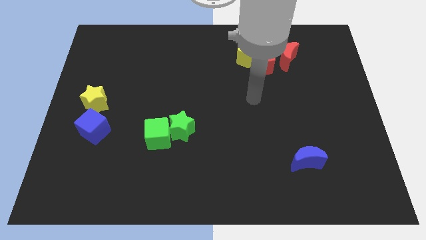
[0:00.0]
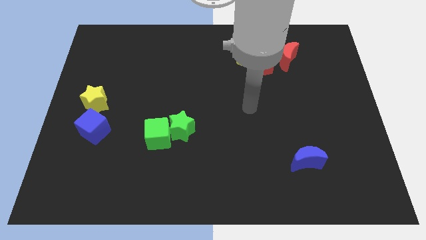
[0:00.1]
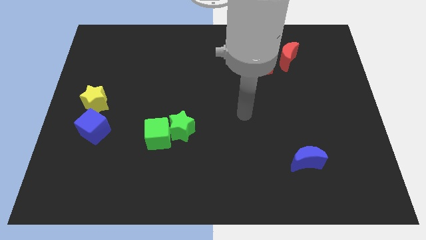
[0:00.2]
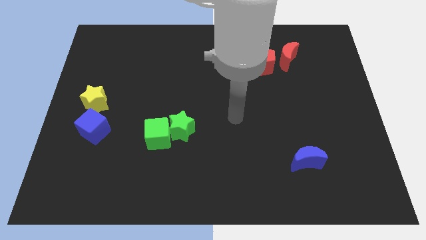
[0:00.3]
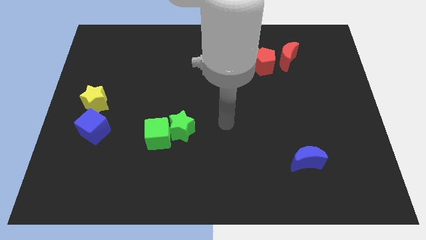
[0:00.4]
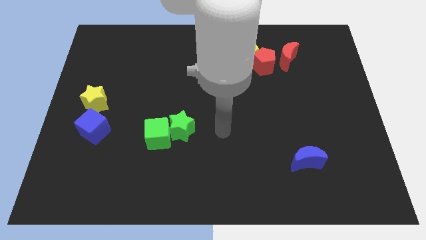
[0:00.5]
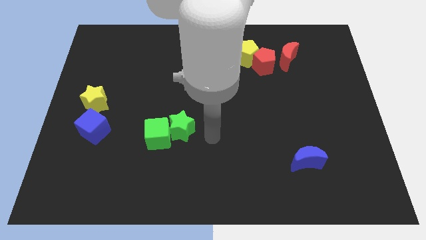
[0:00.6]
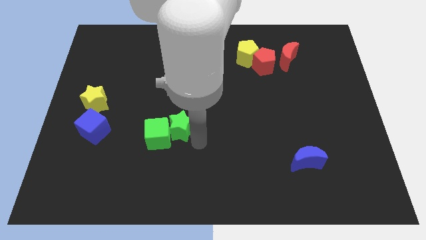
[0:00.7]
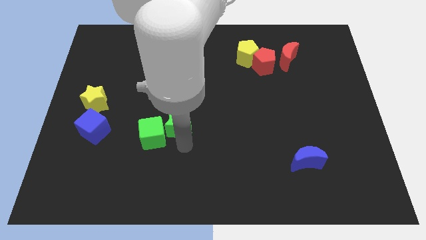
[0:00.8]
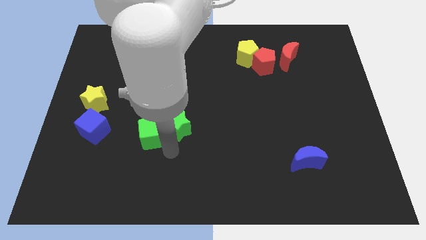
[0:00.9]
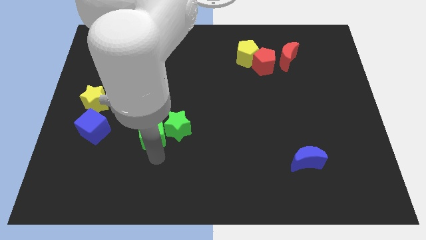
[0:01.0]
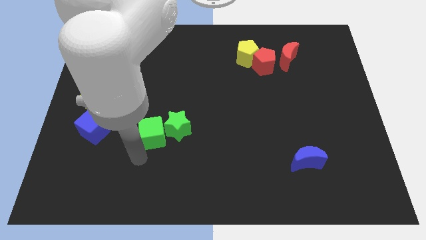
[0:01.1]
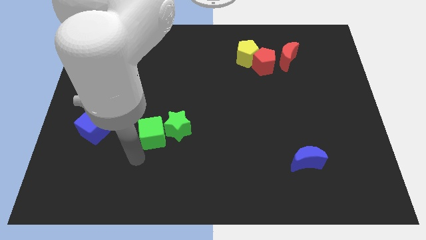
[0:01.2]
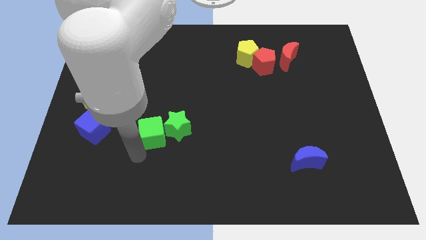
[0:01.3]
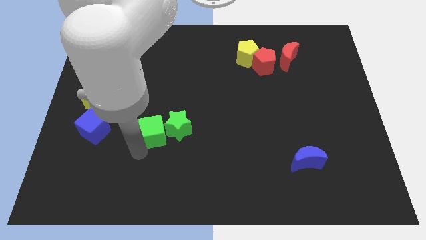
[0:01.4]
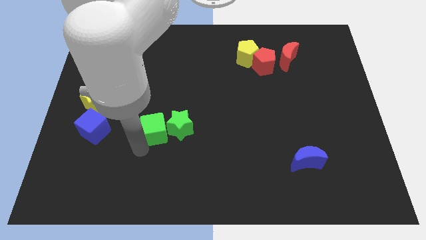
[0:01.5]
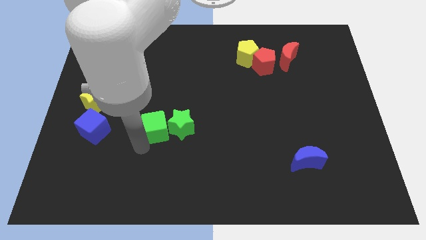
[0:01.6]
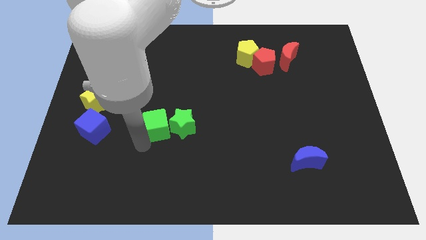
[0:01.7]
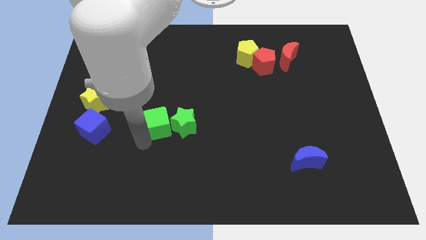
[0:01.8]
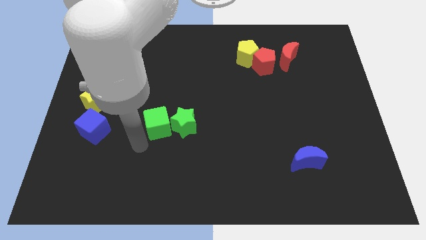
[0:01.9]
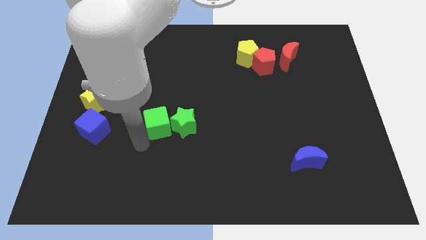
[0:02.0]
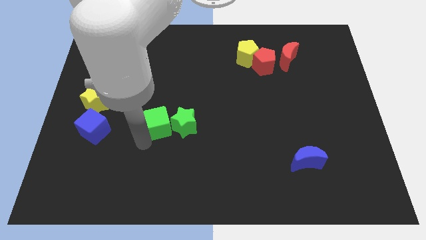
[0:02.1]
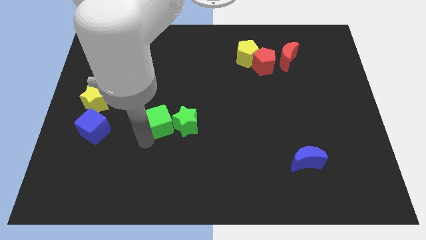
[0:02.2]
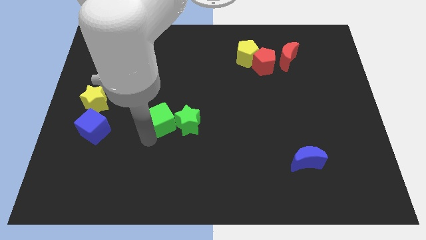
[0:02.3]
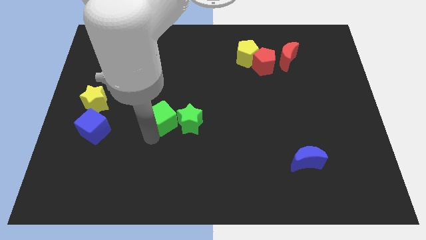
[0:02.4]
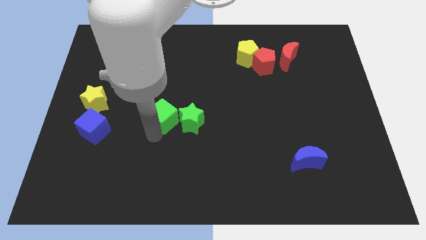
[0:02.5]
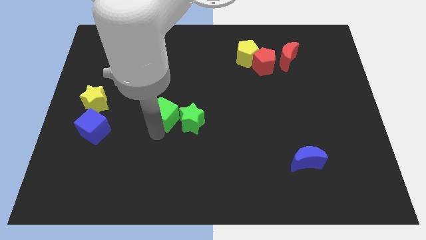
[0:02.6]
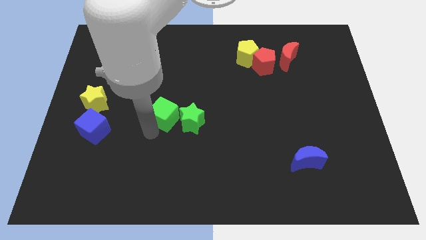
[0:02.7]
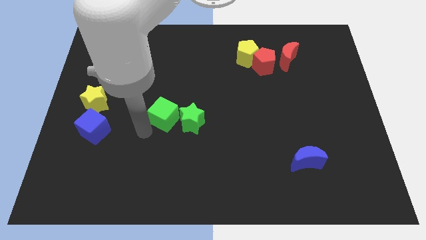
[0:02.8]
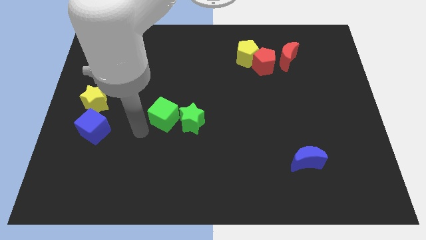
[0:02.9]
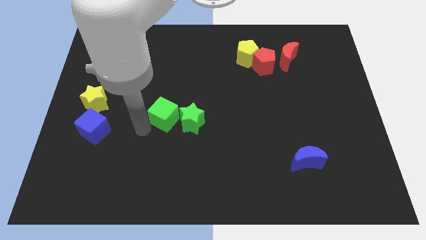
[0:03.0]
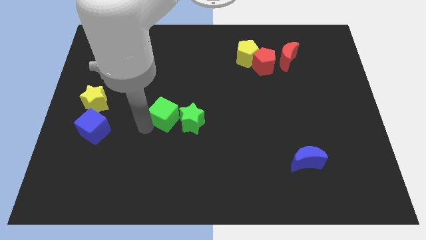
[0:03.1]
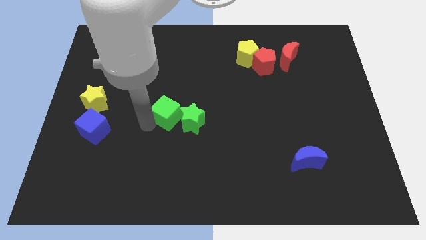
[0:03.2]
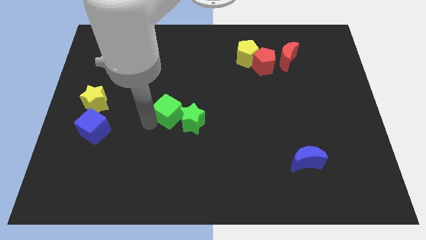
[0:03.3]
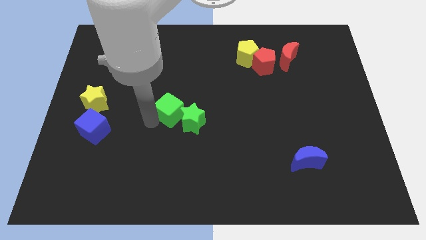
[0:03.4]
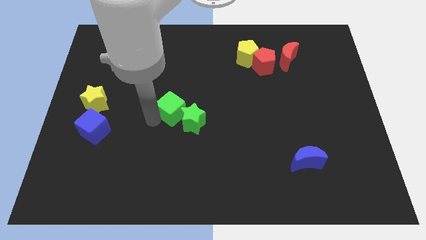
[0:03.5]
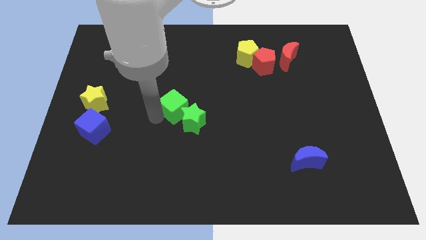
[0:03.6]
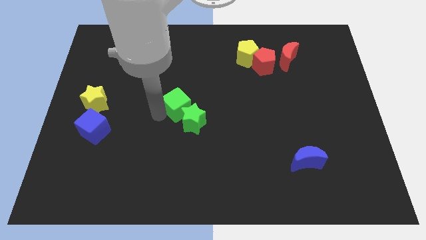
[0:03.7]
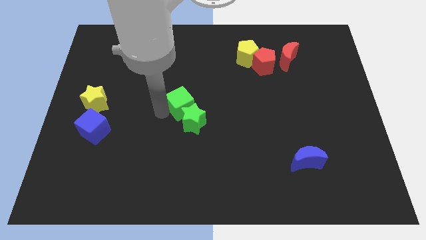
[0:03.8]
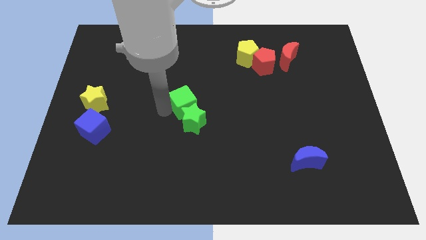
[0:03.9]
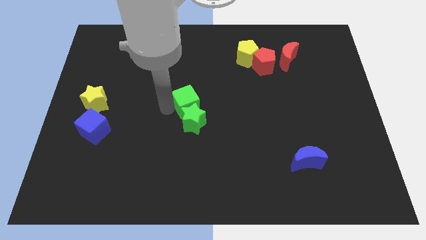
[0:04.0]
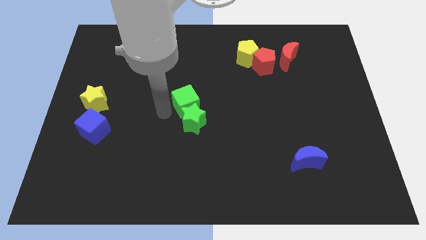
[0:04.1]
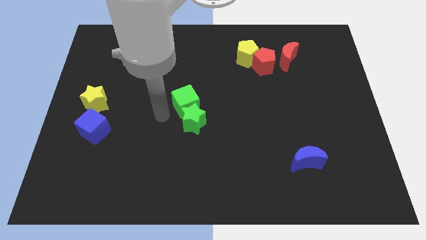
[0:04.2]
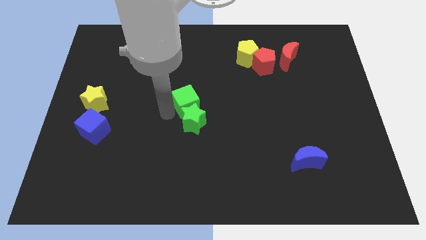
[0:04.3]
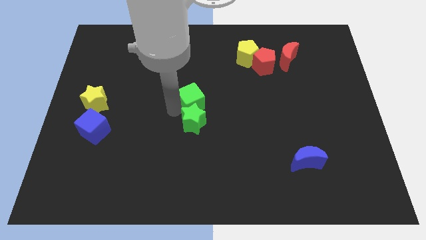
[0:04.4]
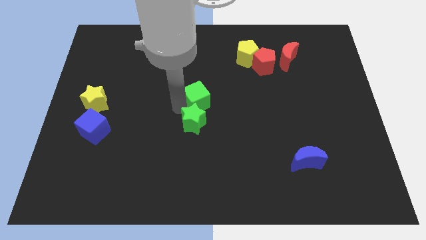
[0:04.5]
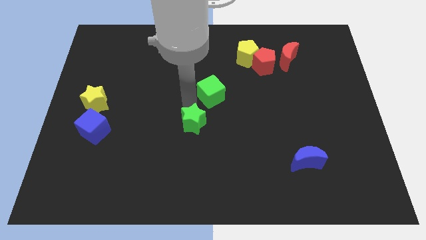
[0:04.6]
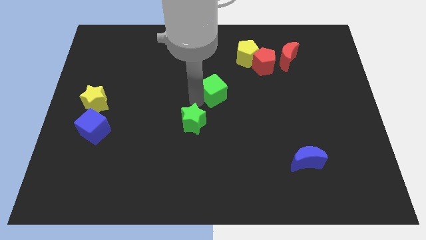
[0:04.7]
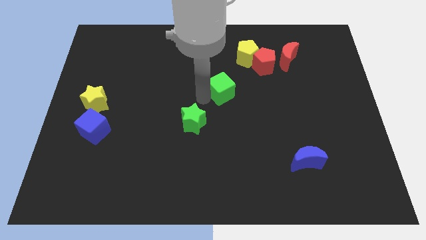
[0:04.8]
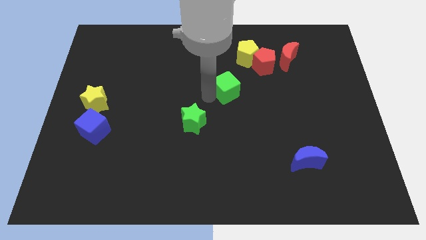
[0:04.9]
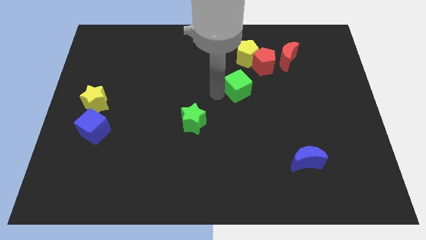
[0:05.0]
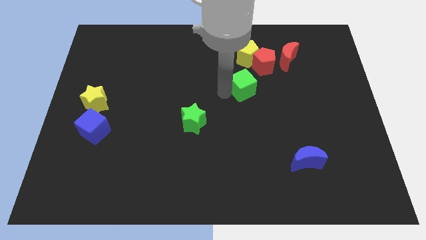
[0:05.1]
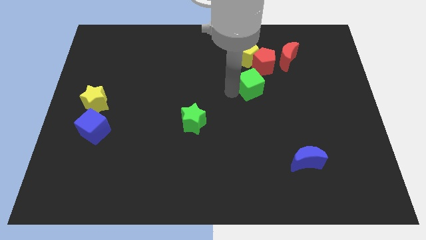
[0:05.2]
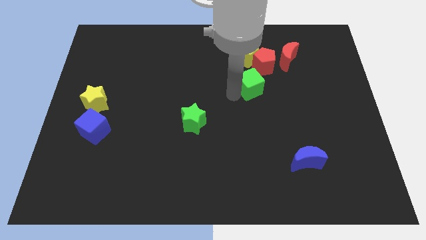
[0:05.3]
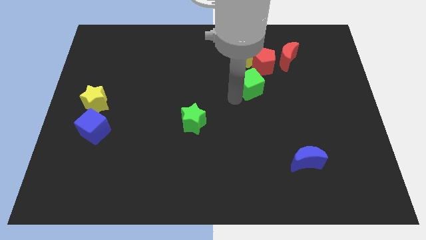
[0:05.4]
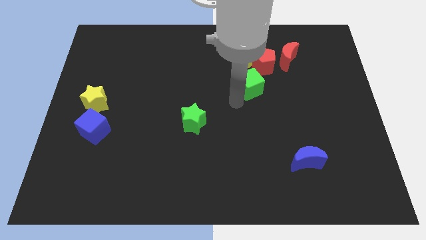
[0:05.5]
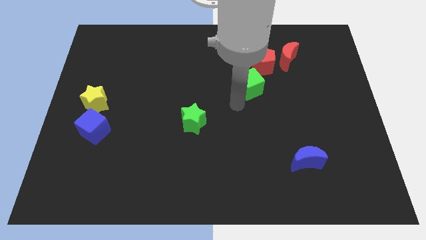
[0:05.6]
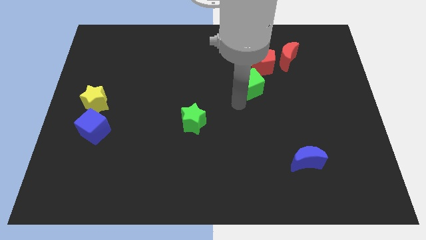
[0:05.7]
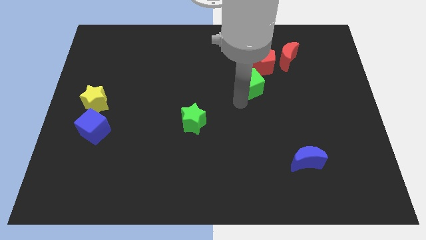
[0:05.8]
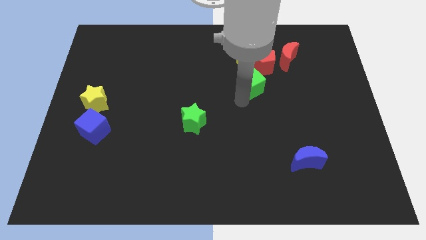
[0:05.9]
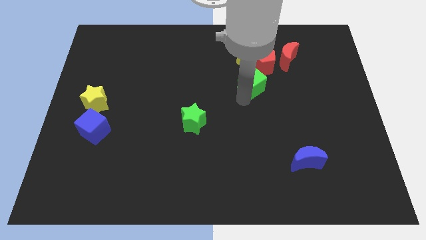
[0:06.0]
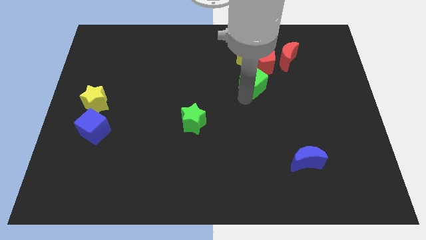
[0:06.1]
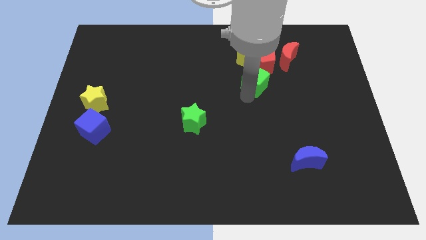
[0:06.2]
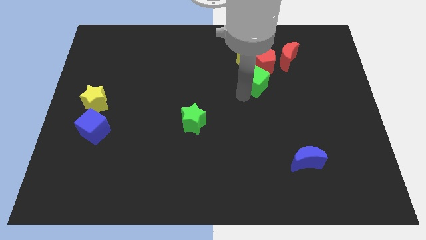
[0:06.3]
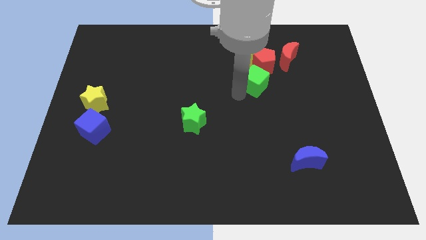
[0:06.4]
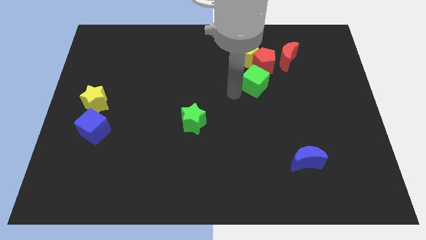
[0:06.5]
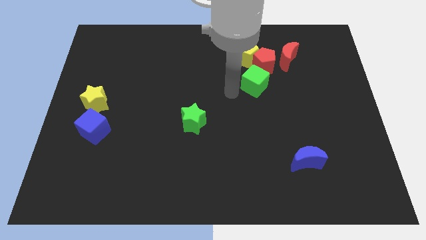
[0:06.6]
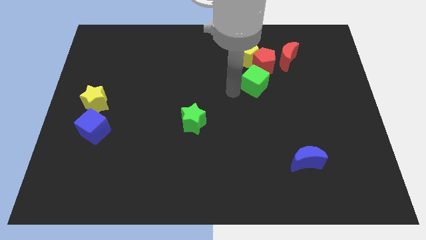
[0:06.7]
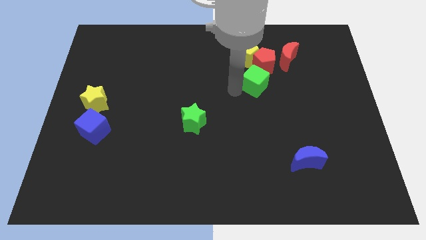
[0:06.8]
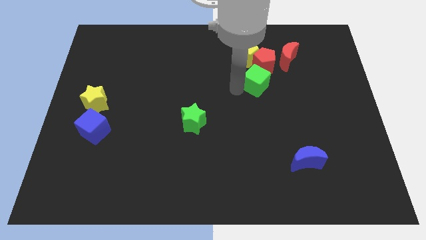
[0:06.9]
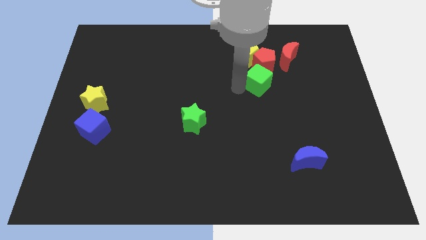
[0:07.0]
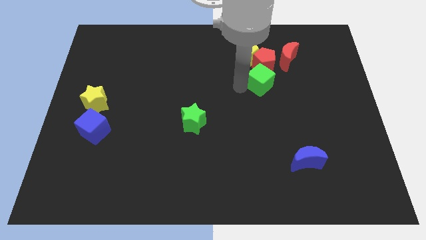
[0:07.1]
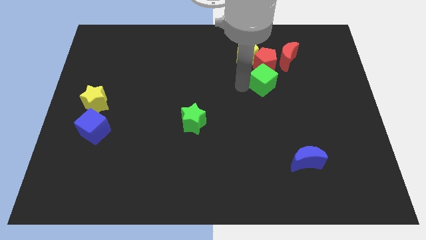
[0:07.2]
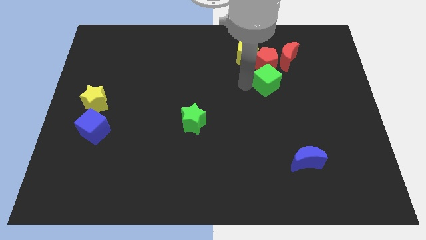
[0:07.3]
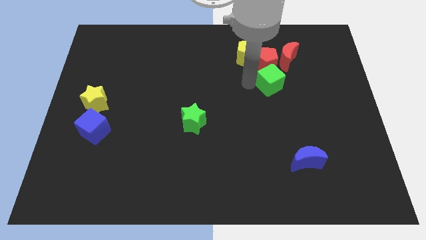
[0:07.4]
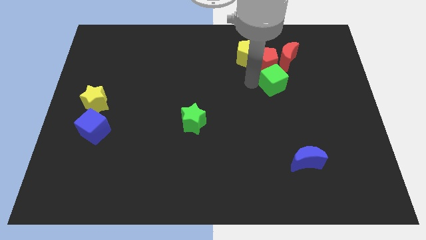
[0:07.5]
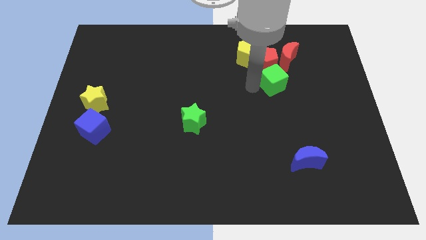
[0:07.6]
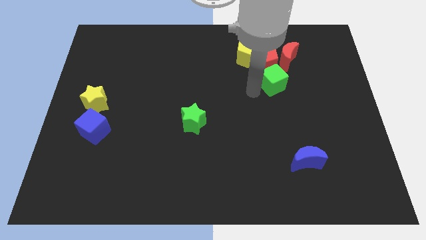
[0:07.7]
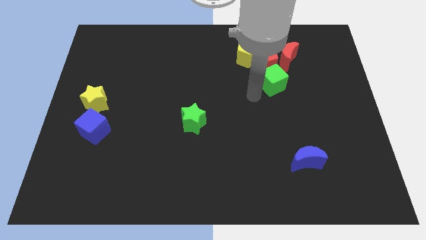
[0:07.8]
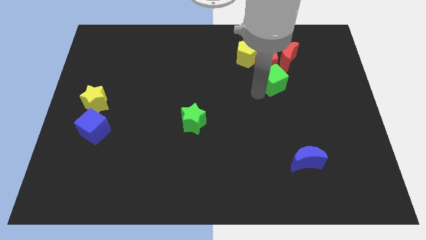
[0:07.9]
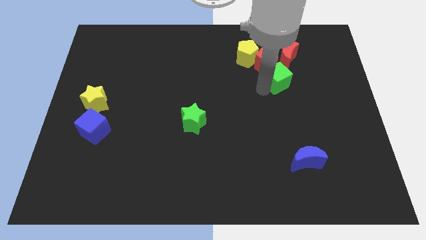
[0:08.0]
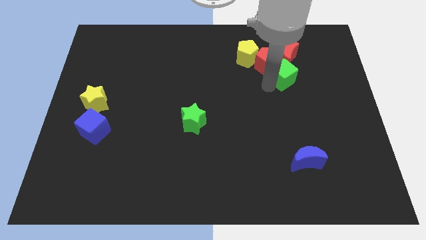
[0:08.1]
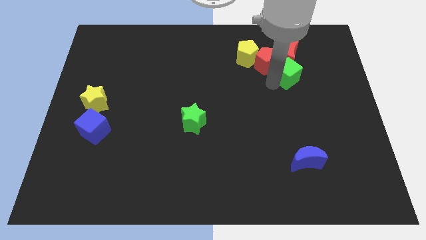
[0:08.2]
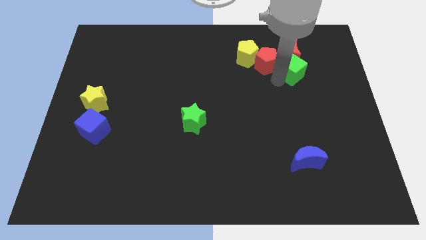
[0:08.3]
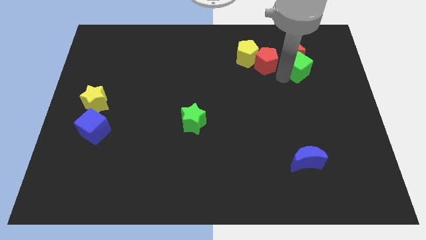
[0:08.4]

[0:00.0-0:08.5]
put the green cube to the right side of the yellow pentagon
